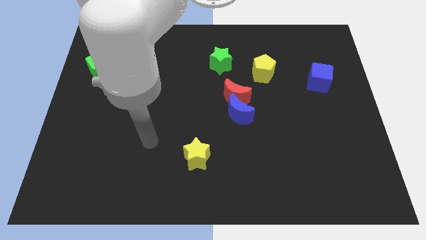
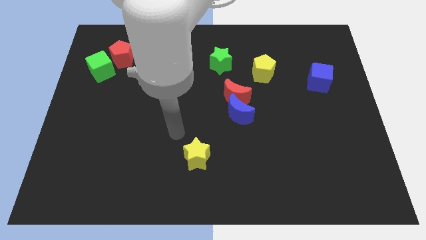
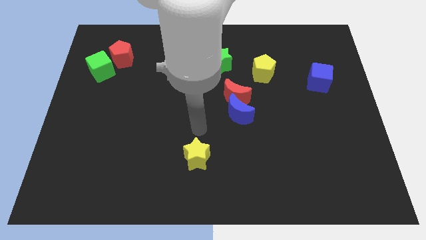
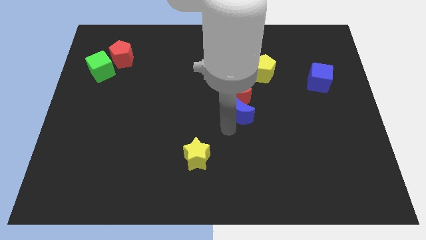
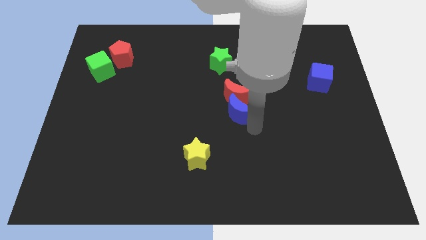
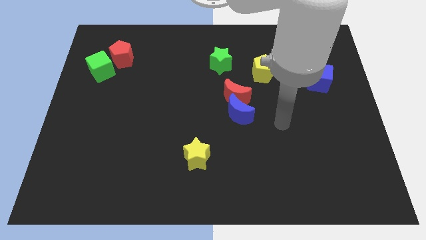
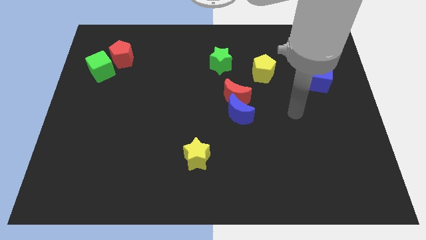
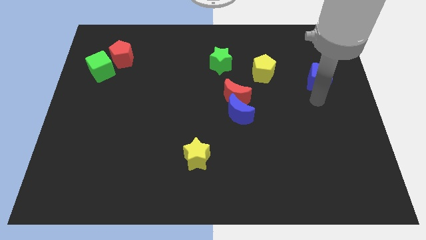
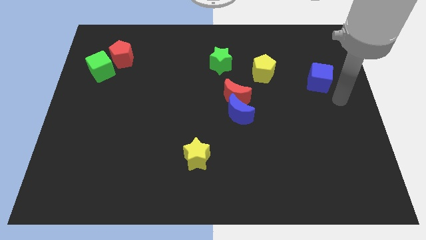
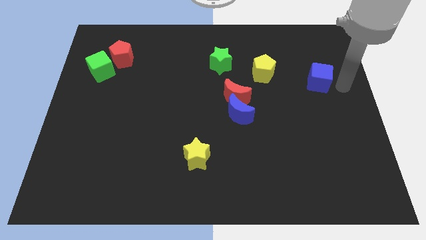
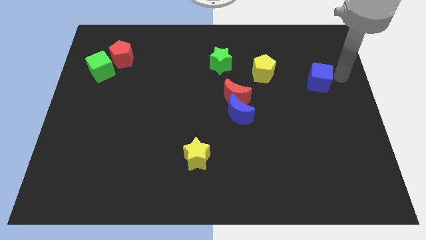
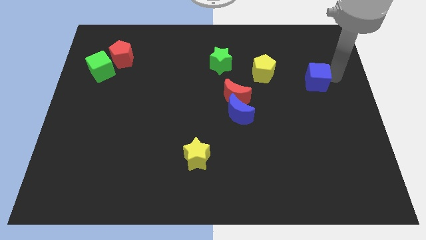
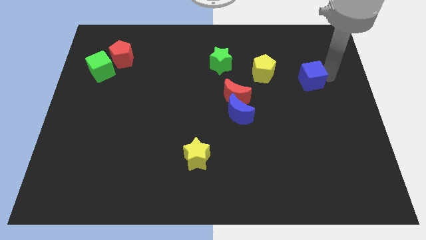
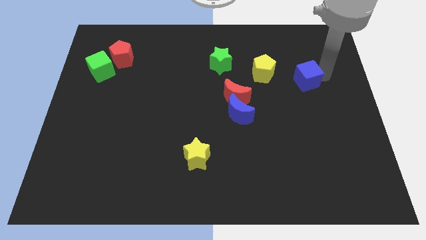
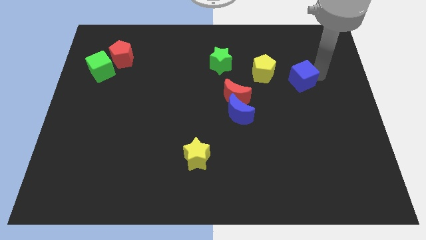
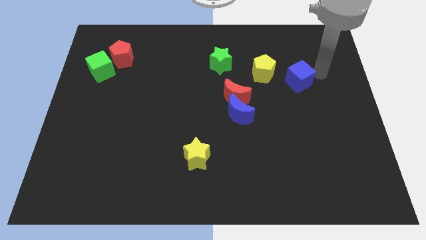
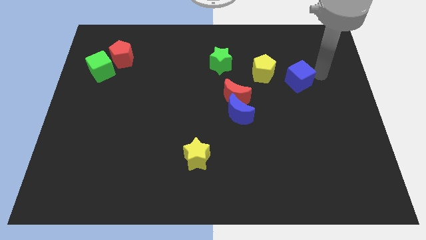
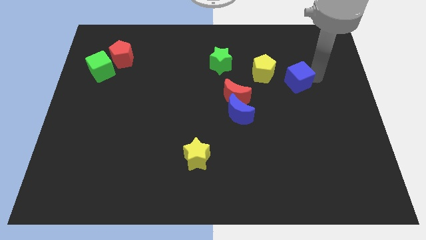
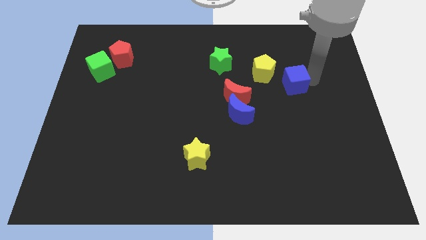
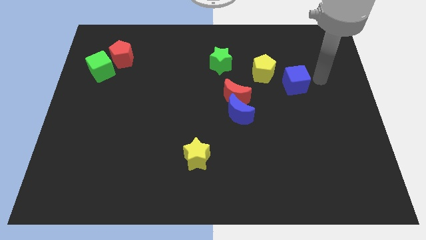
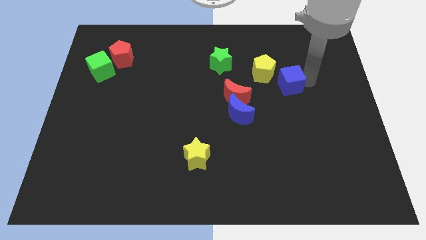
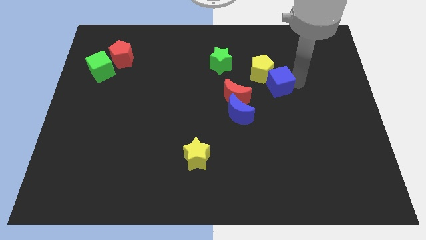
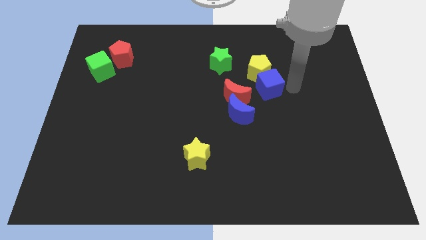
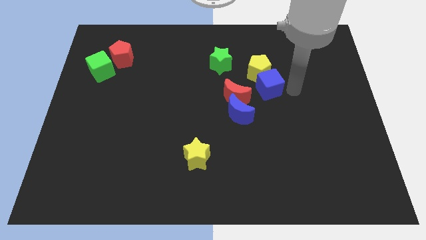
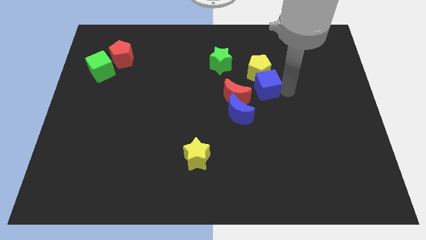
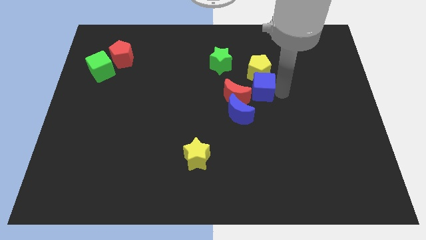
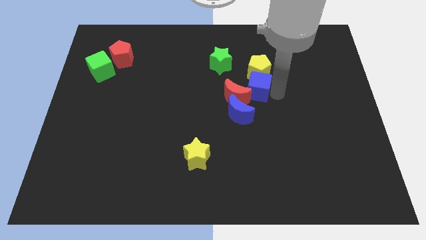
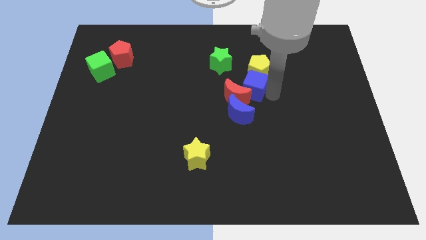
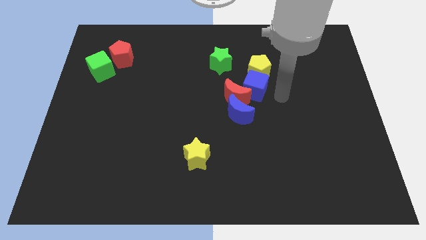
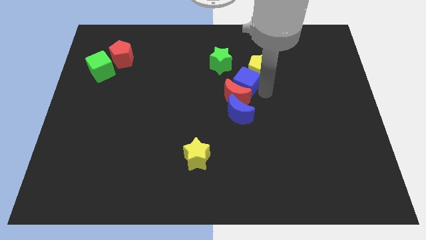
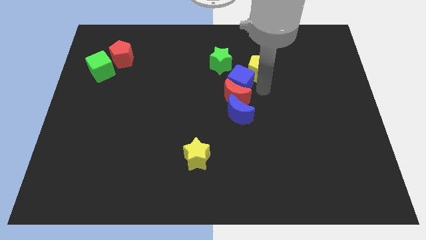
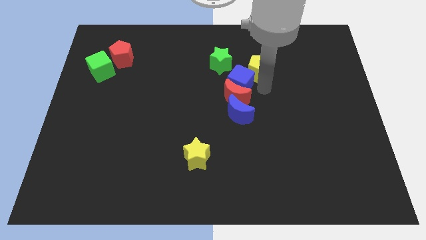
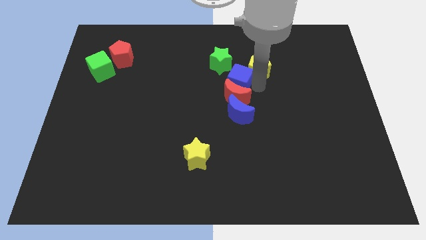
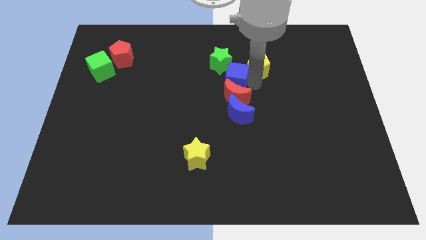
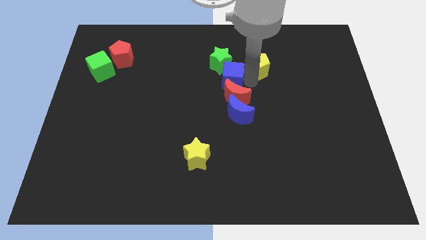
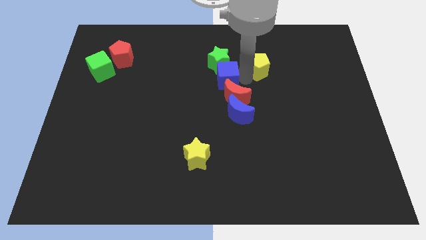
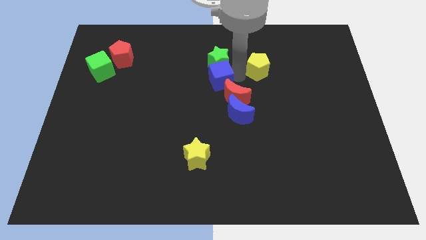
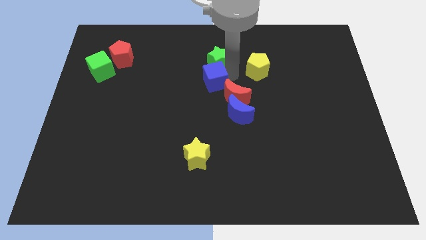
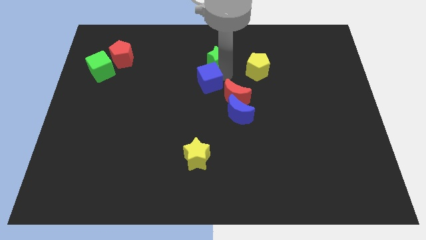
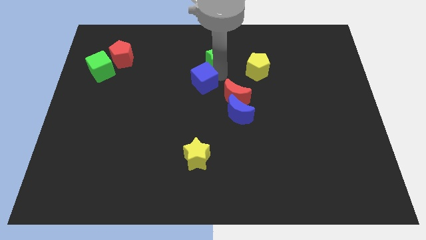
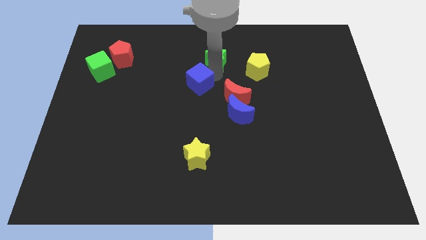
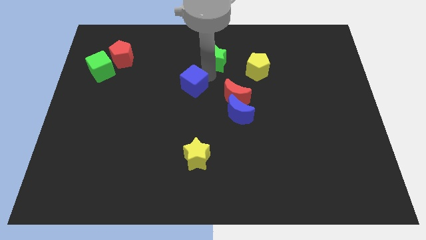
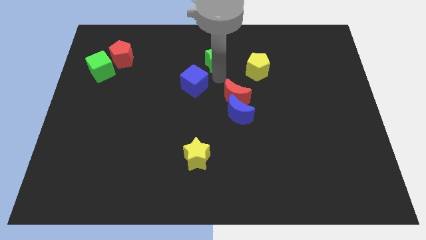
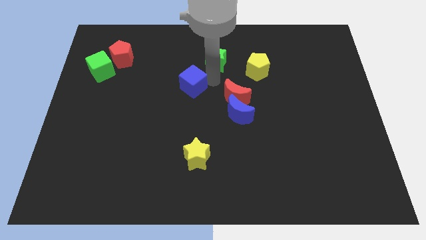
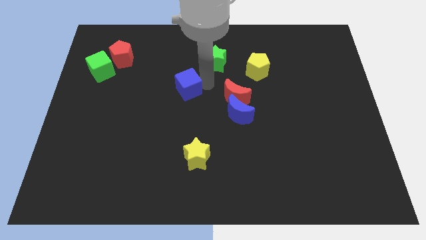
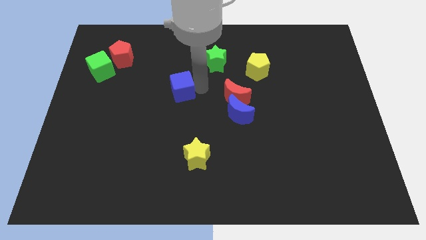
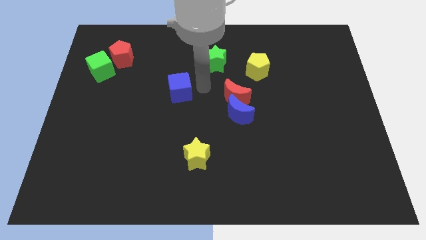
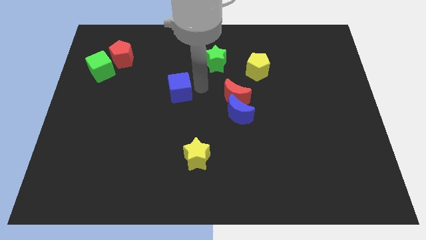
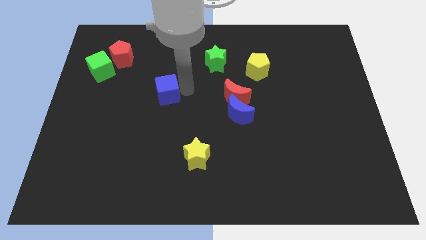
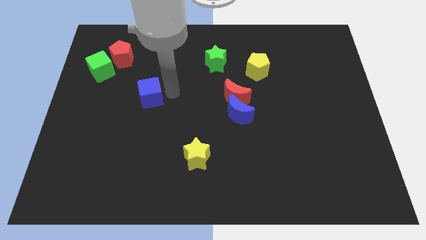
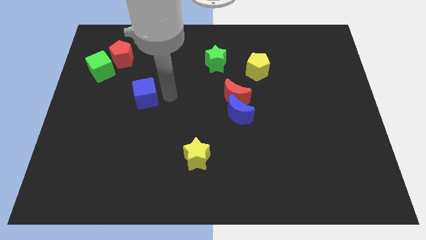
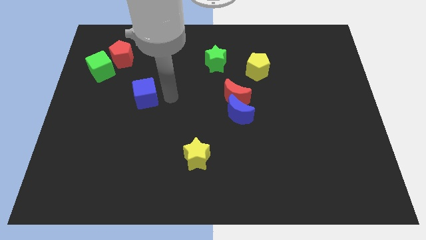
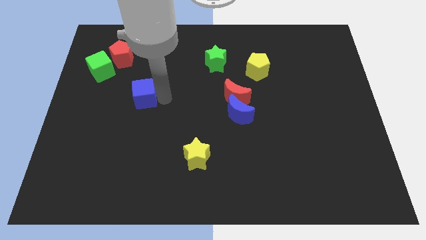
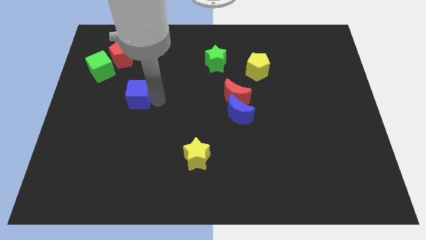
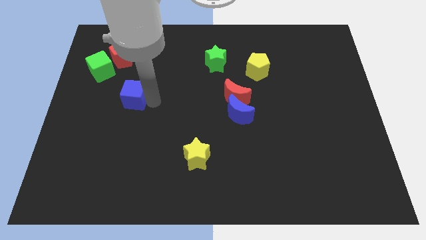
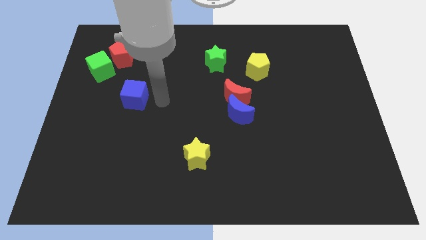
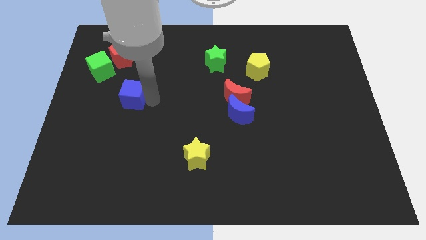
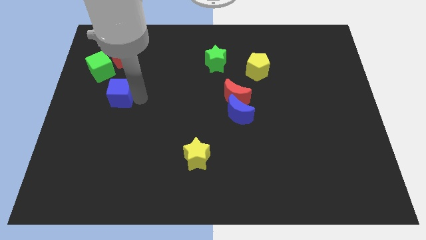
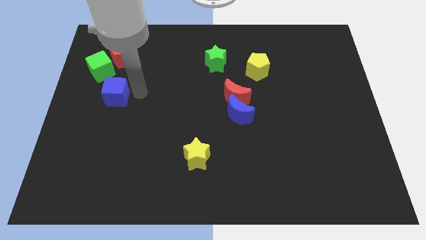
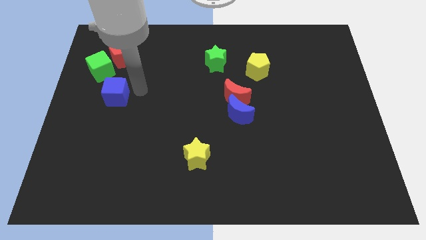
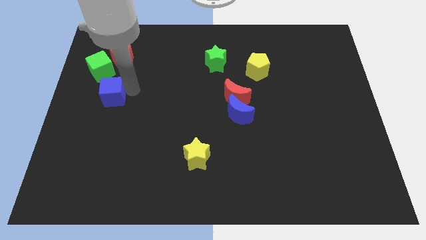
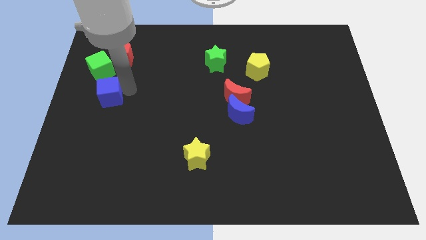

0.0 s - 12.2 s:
slide the blue cube to the center left
